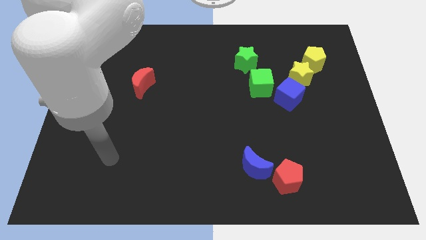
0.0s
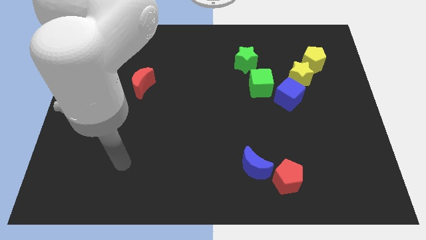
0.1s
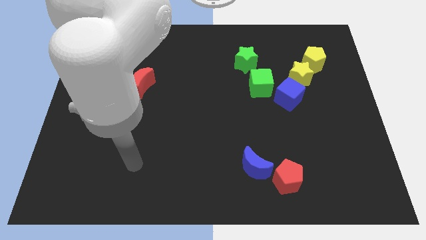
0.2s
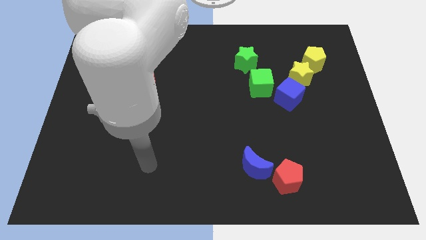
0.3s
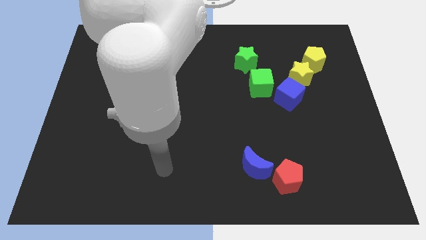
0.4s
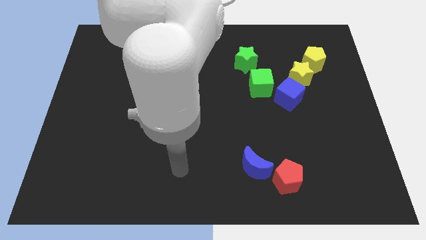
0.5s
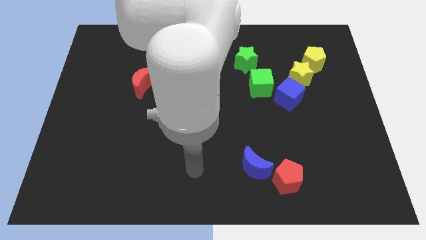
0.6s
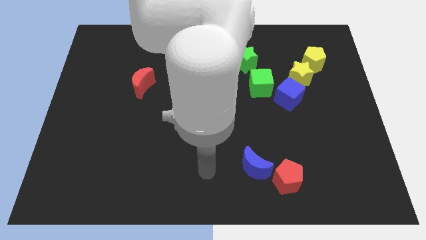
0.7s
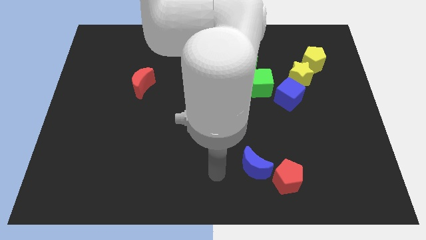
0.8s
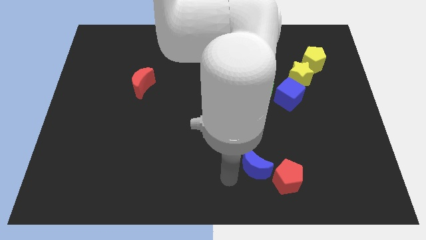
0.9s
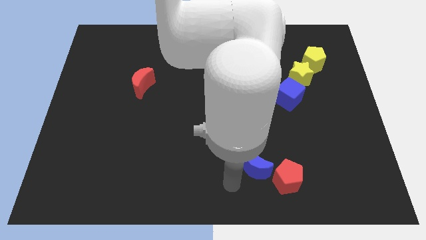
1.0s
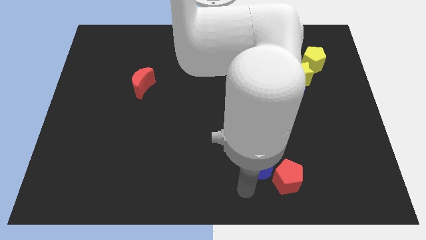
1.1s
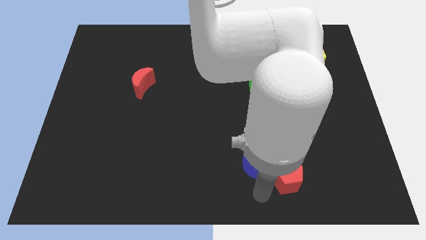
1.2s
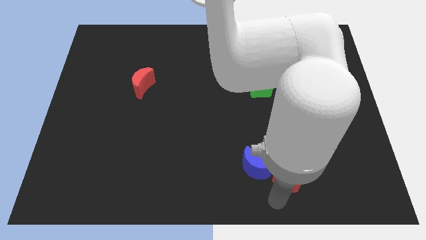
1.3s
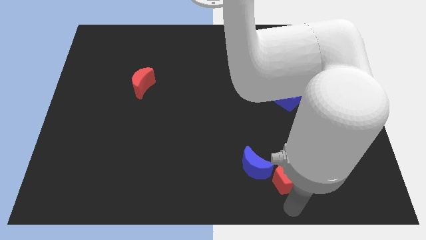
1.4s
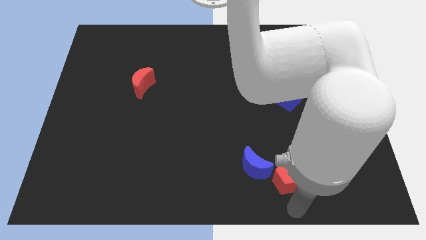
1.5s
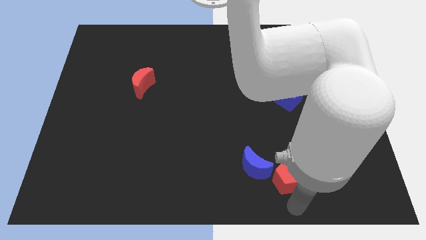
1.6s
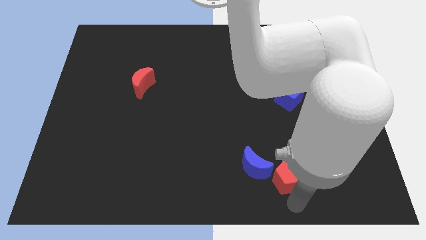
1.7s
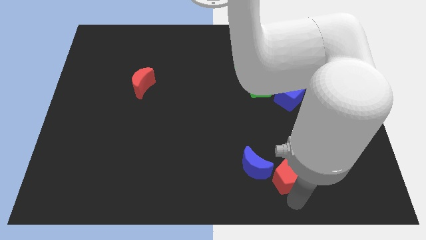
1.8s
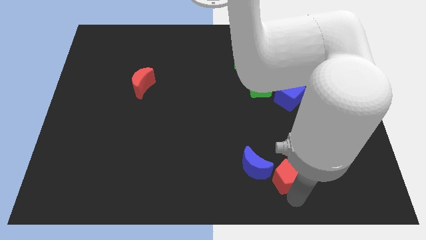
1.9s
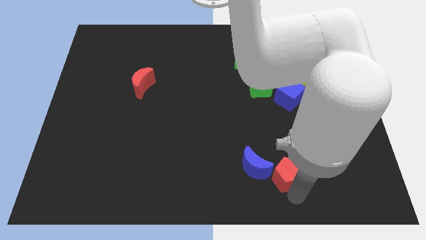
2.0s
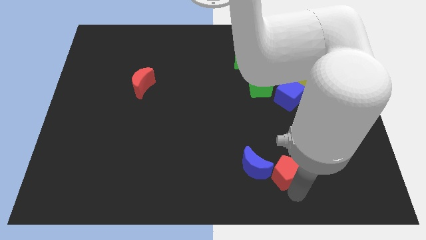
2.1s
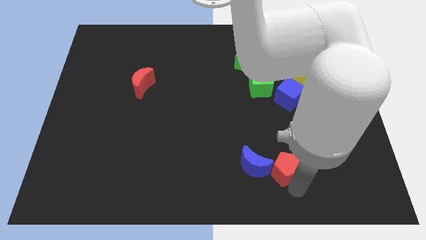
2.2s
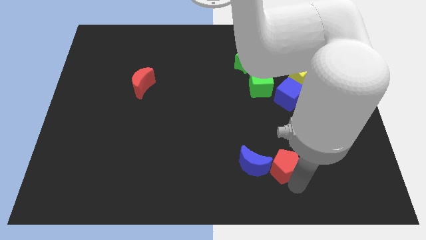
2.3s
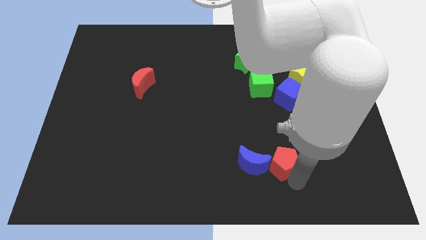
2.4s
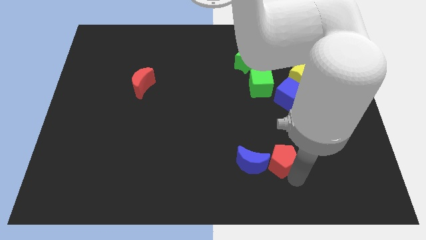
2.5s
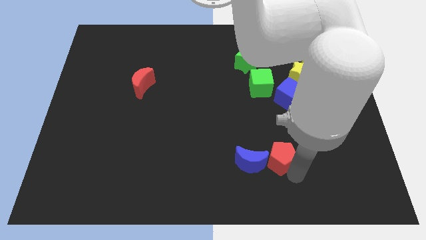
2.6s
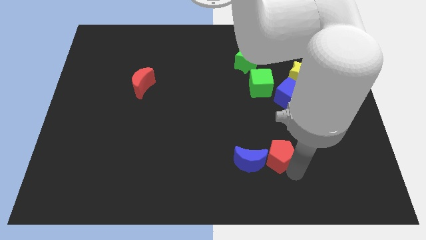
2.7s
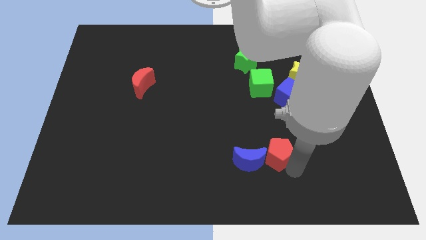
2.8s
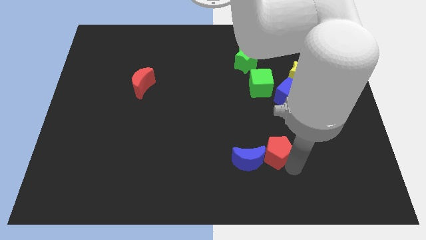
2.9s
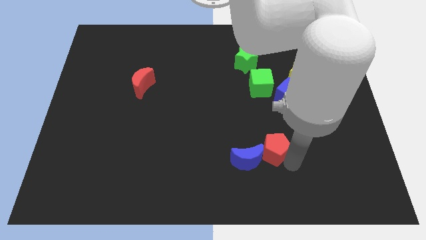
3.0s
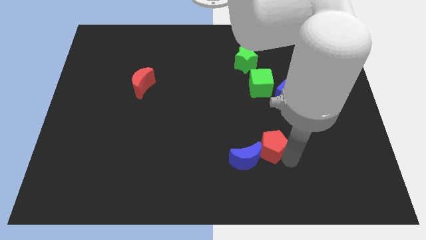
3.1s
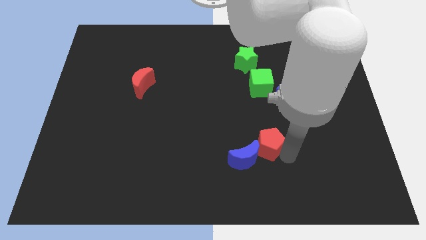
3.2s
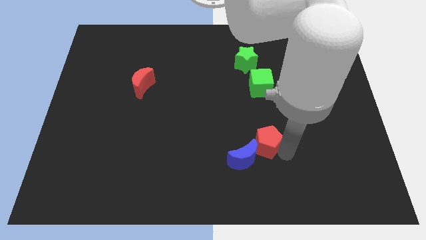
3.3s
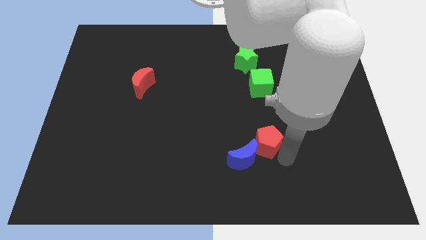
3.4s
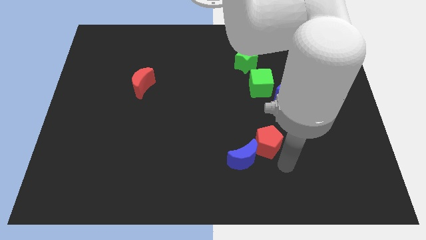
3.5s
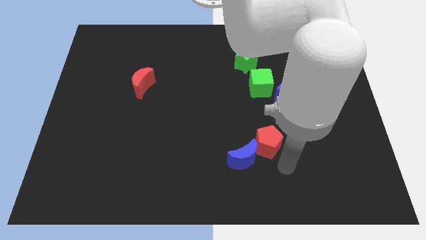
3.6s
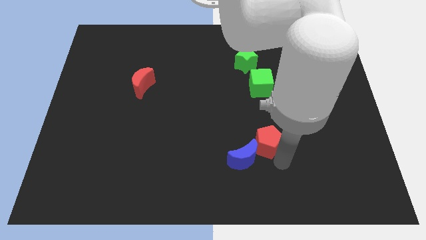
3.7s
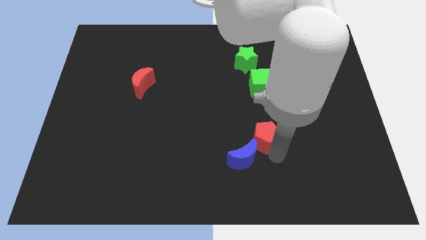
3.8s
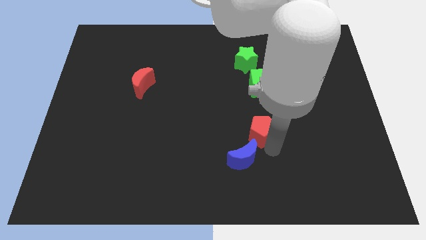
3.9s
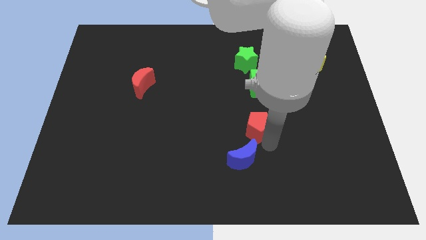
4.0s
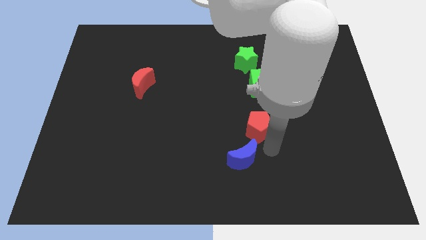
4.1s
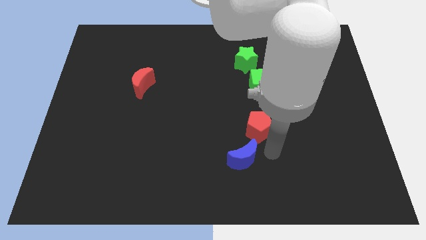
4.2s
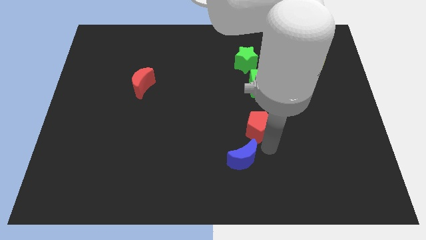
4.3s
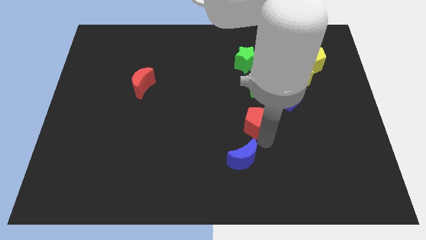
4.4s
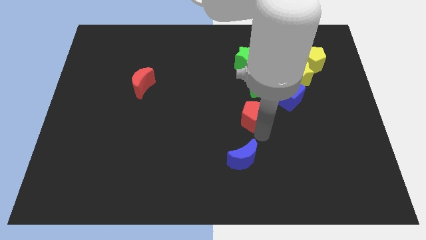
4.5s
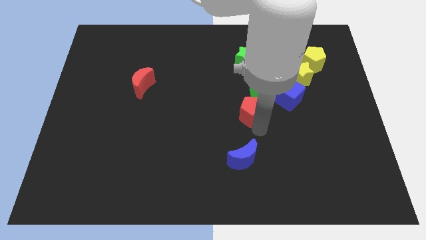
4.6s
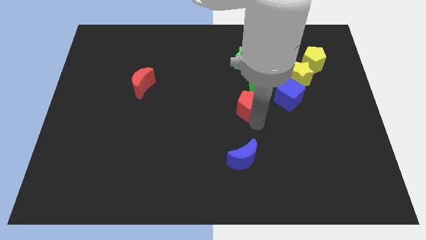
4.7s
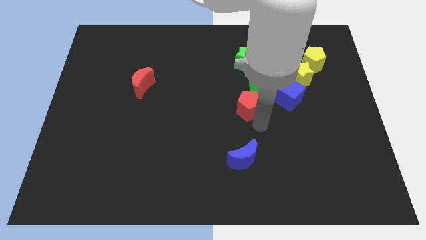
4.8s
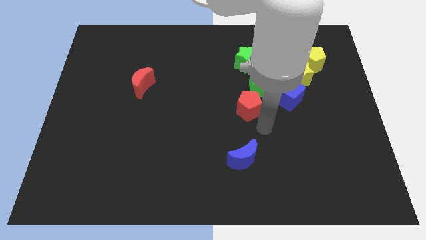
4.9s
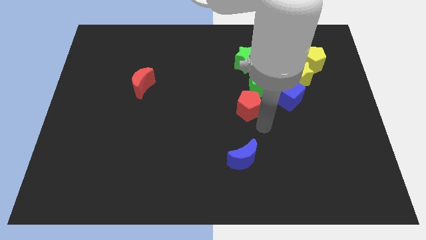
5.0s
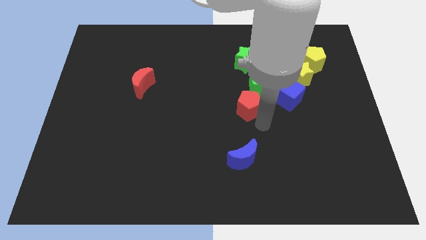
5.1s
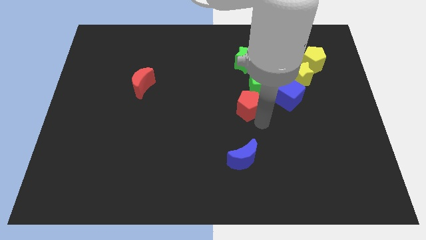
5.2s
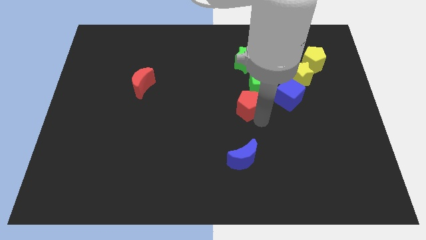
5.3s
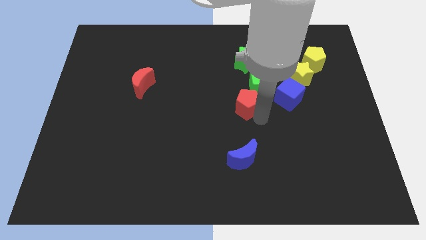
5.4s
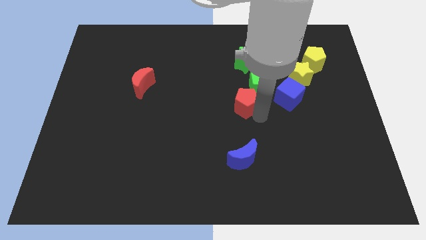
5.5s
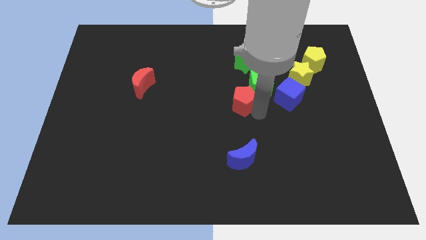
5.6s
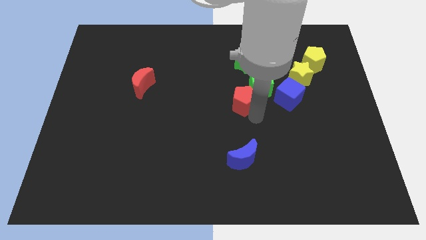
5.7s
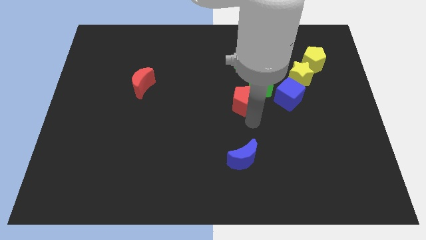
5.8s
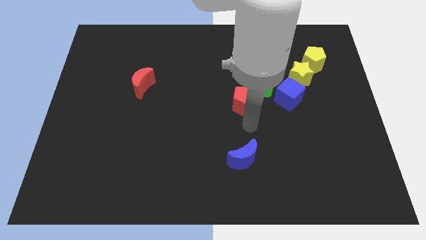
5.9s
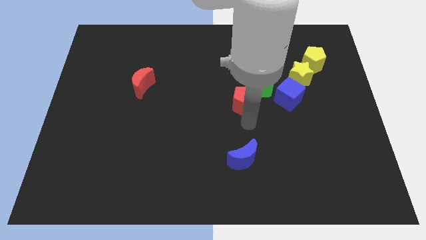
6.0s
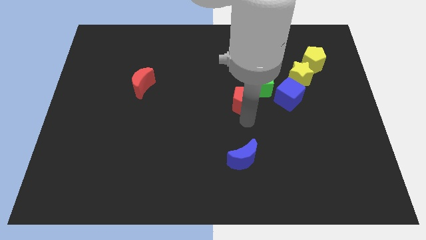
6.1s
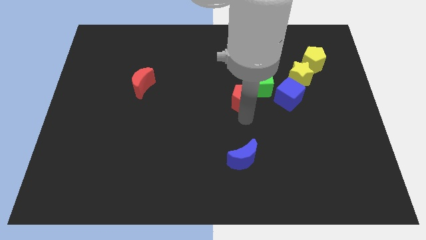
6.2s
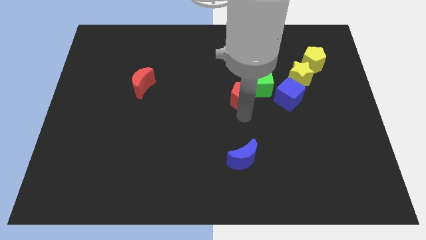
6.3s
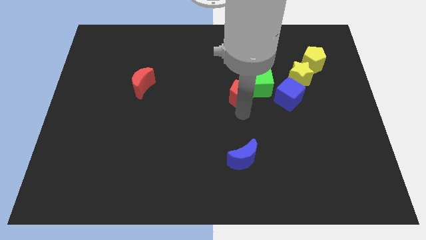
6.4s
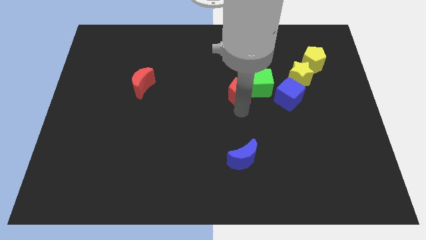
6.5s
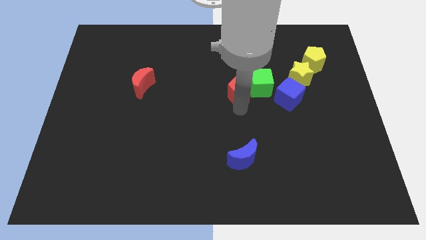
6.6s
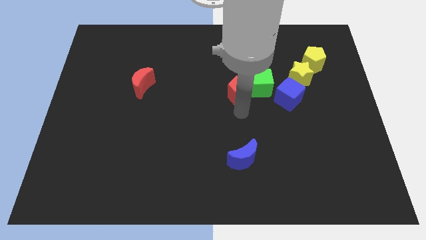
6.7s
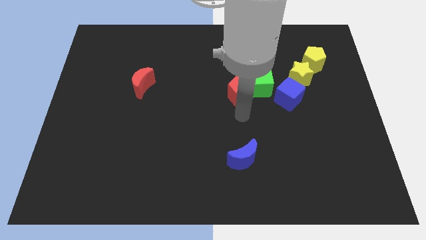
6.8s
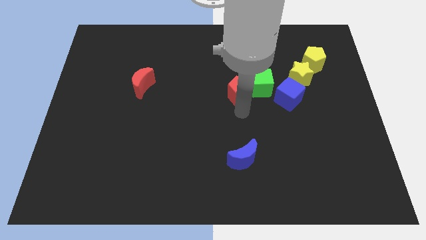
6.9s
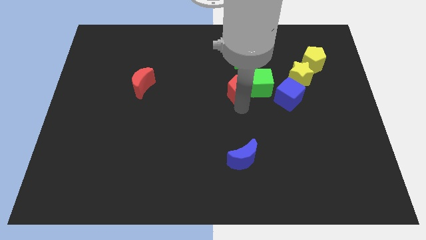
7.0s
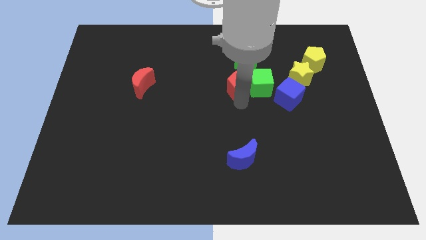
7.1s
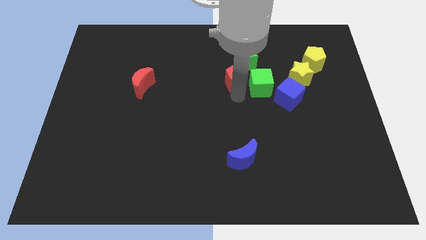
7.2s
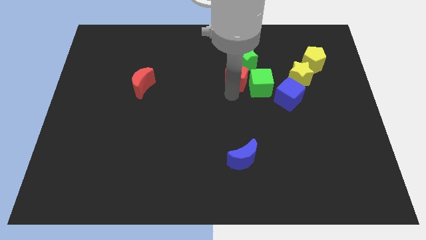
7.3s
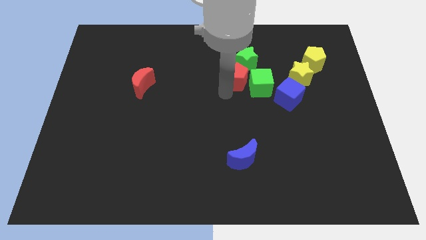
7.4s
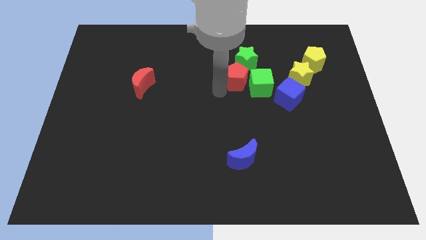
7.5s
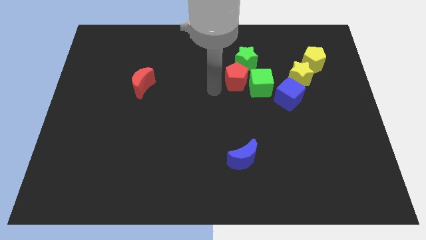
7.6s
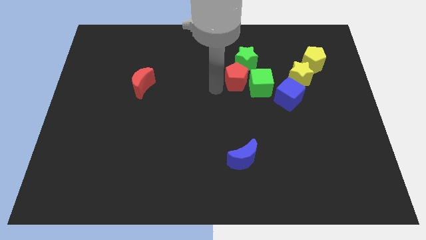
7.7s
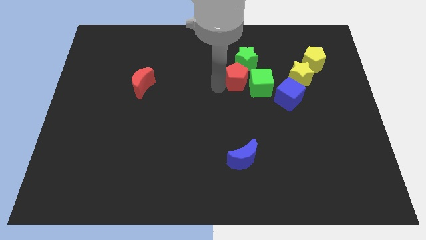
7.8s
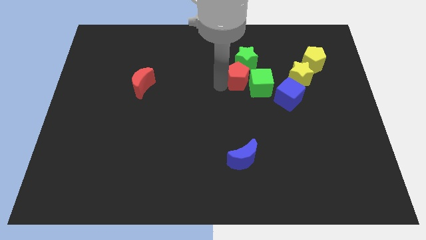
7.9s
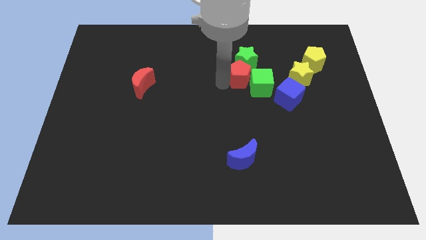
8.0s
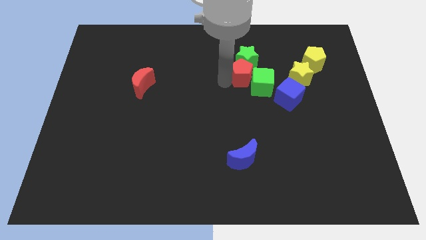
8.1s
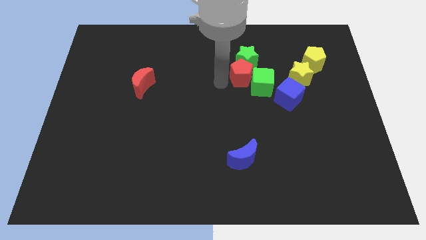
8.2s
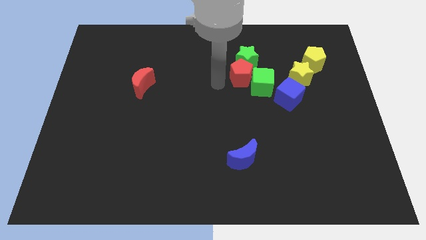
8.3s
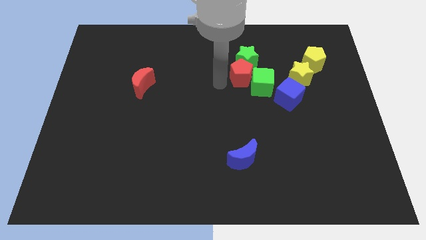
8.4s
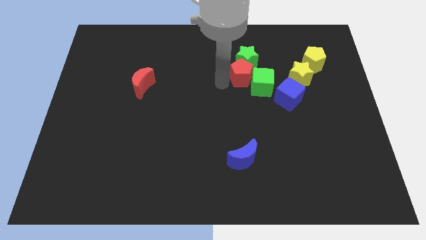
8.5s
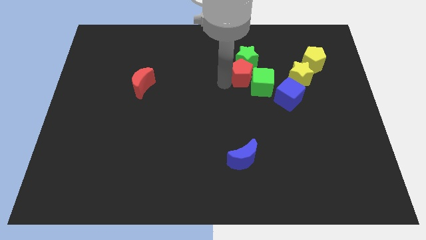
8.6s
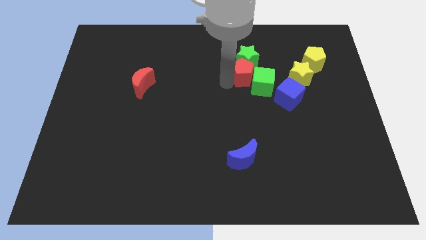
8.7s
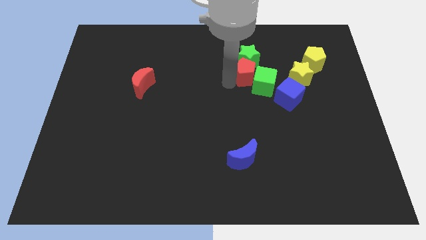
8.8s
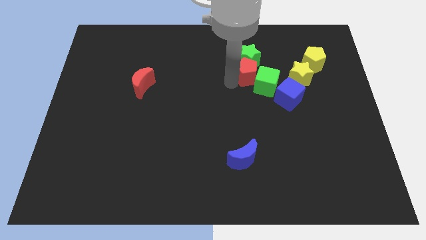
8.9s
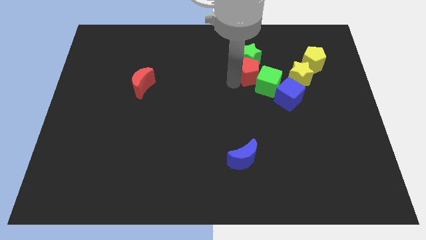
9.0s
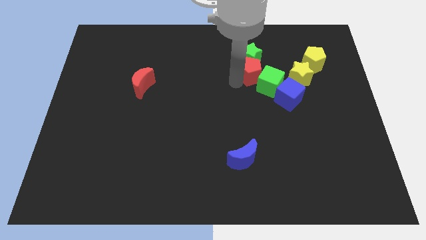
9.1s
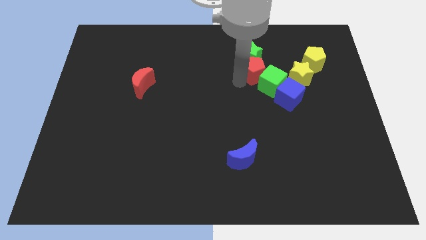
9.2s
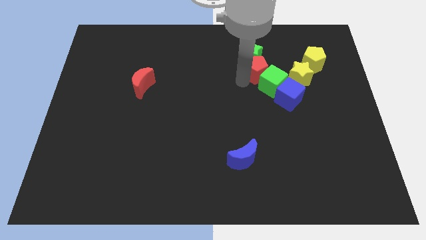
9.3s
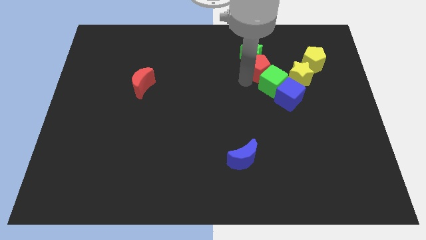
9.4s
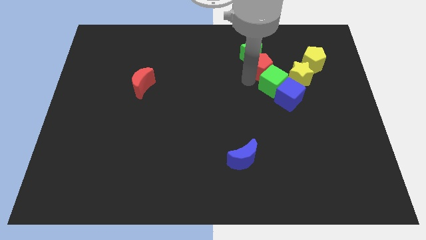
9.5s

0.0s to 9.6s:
push the red pentagon to the top left side of the yellow star
